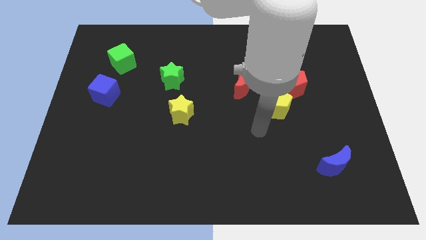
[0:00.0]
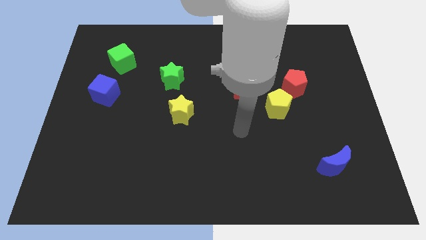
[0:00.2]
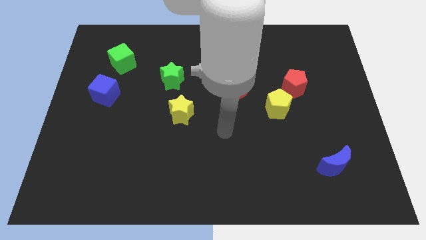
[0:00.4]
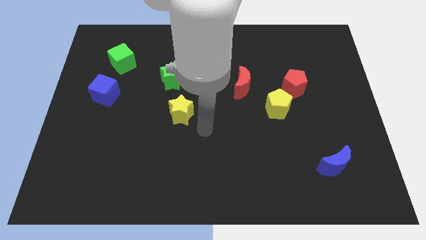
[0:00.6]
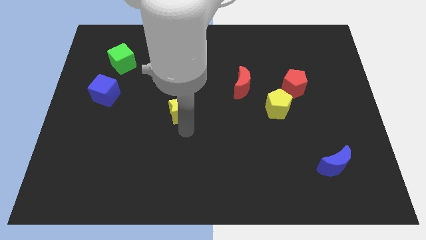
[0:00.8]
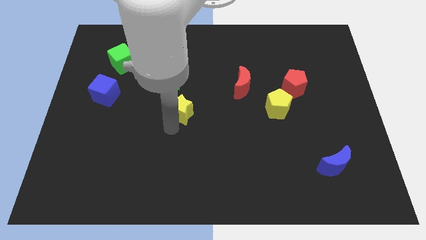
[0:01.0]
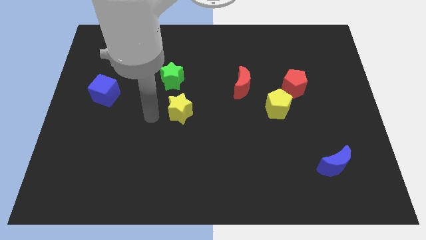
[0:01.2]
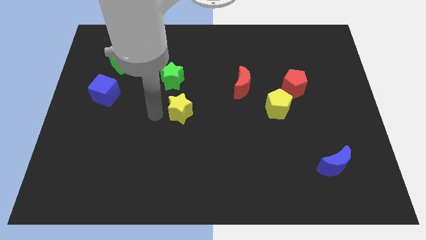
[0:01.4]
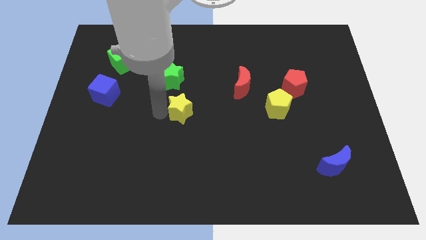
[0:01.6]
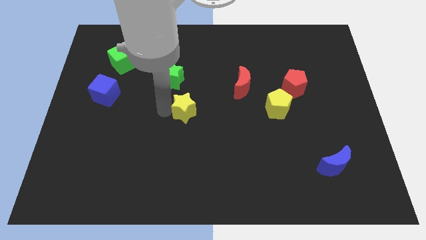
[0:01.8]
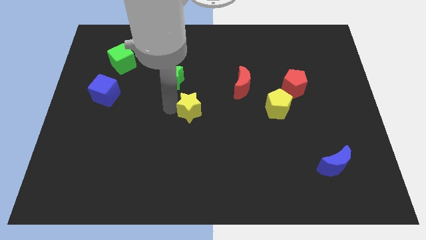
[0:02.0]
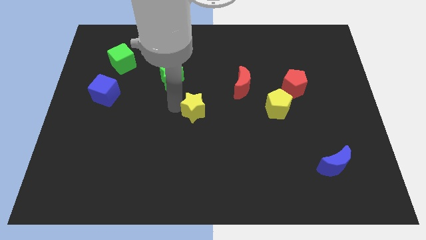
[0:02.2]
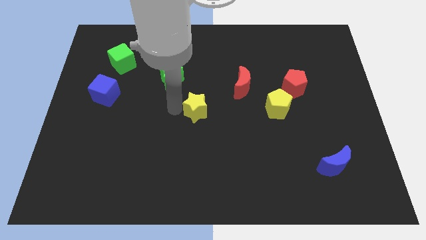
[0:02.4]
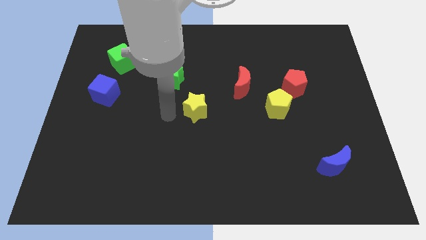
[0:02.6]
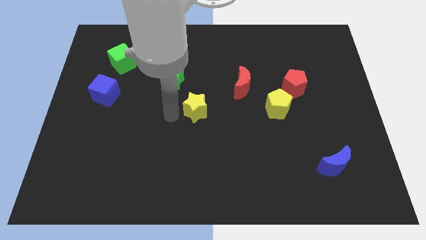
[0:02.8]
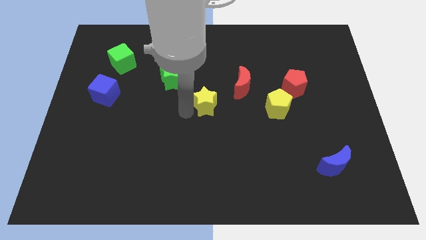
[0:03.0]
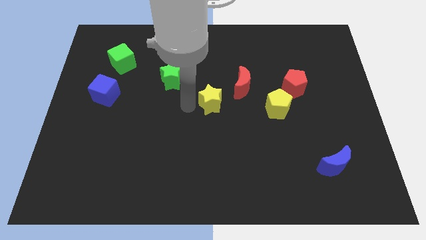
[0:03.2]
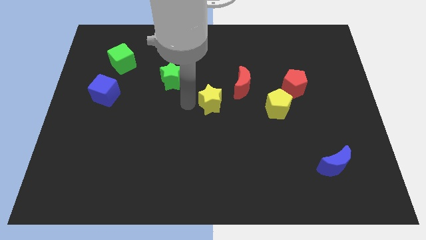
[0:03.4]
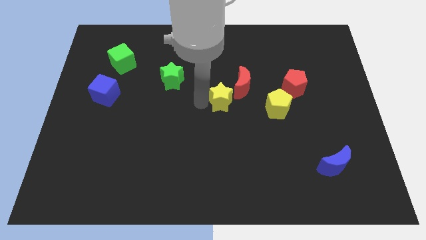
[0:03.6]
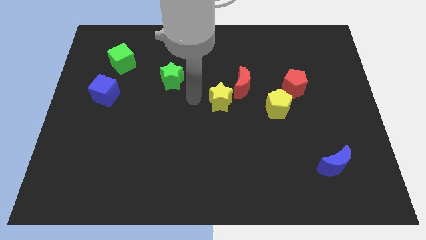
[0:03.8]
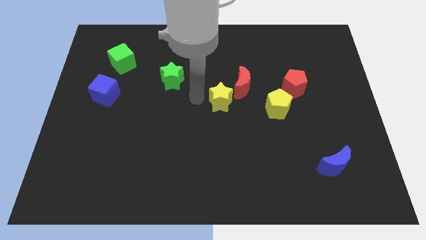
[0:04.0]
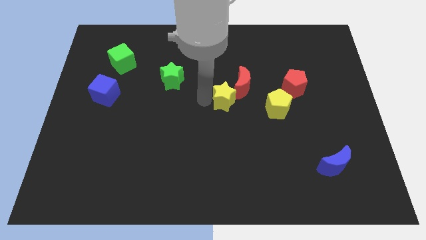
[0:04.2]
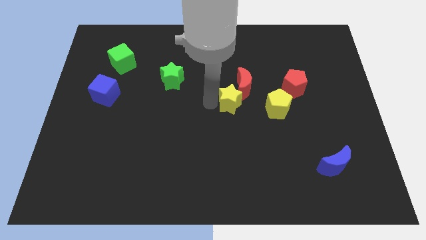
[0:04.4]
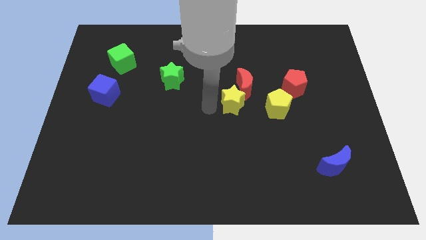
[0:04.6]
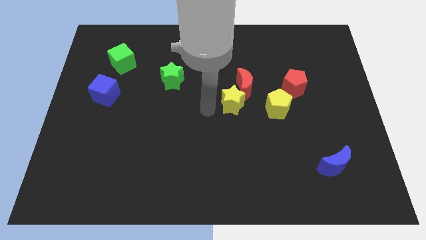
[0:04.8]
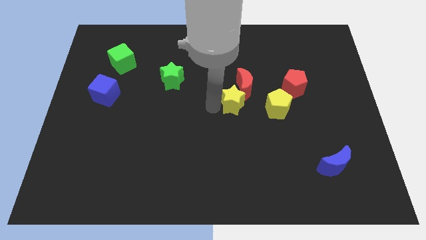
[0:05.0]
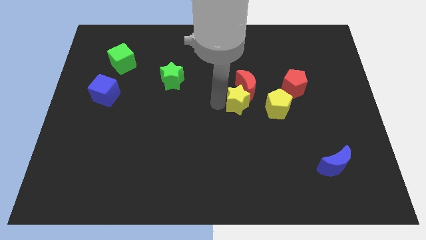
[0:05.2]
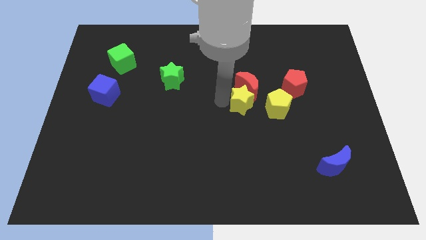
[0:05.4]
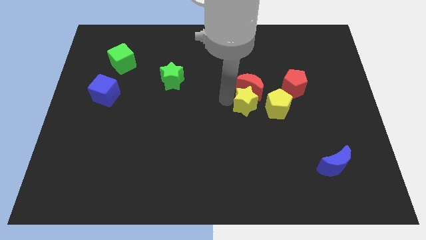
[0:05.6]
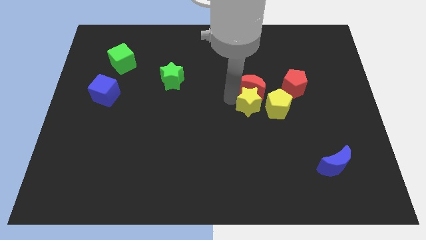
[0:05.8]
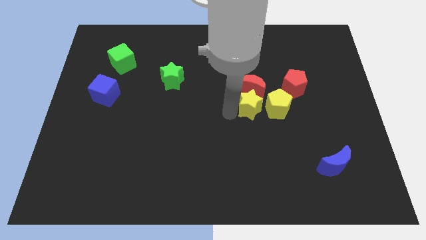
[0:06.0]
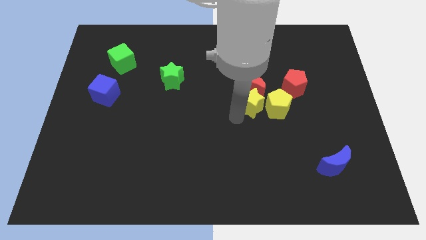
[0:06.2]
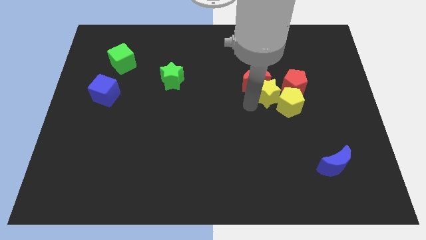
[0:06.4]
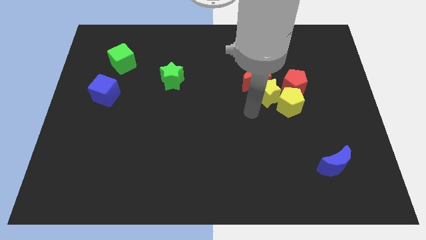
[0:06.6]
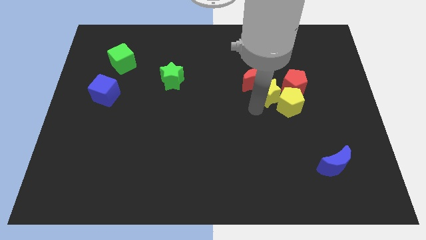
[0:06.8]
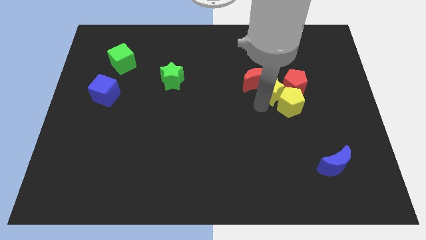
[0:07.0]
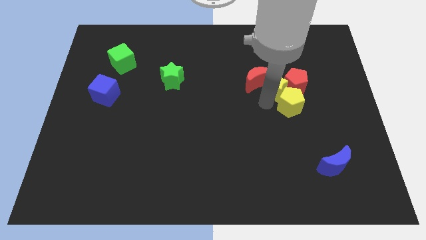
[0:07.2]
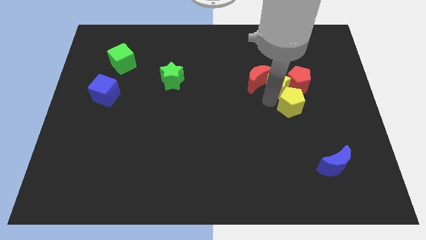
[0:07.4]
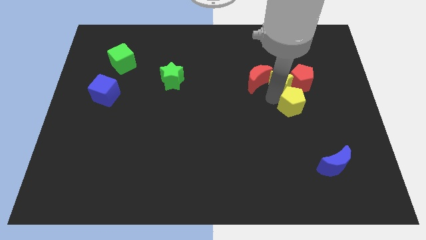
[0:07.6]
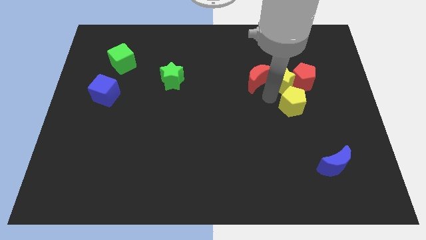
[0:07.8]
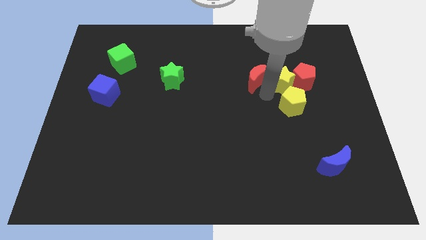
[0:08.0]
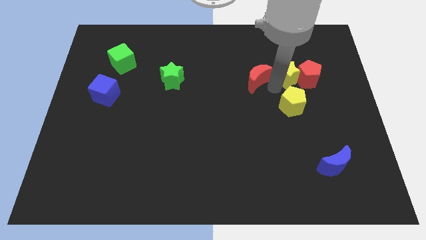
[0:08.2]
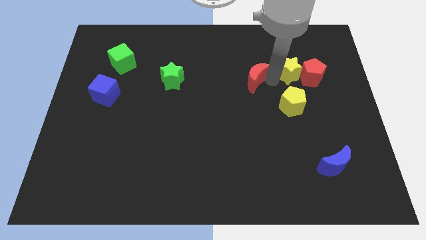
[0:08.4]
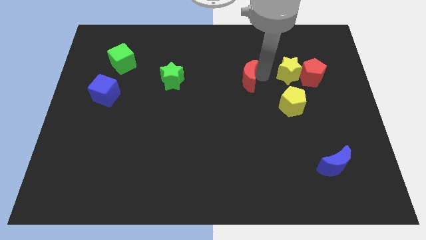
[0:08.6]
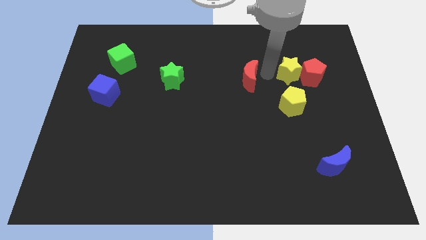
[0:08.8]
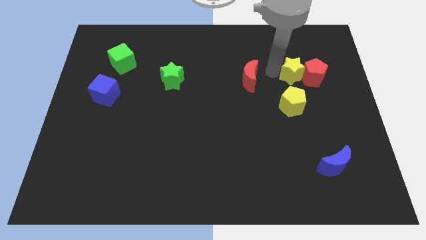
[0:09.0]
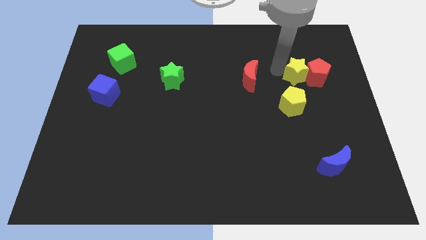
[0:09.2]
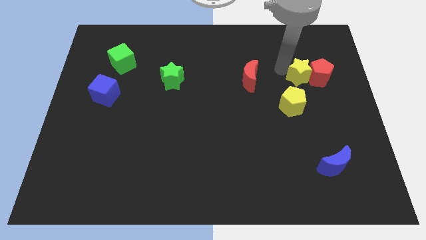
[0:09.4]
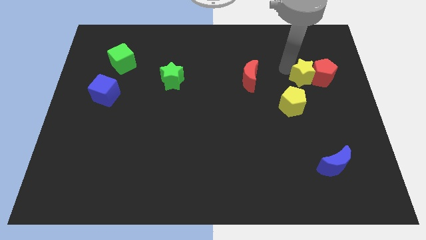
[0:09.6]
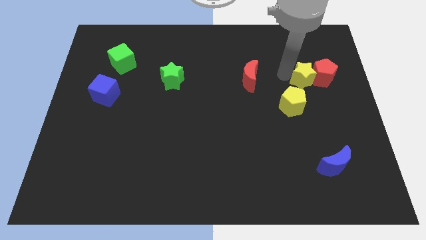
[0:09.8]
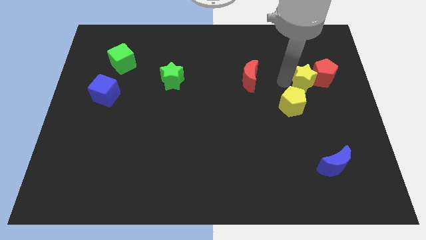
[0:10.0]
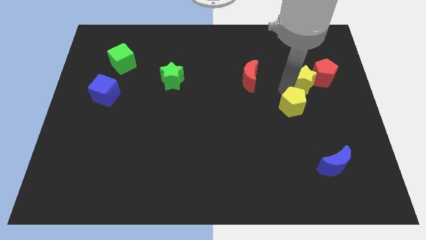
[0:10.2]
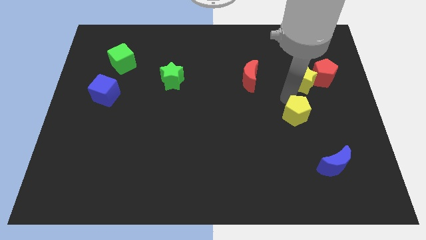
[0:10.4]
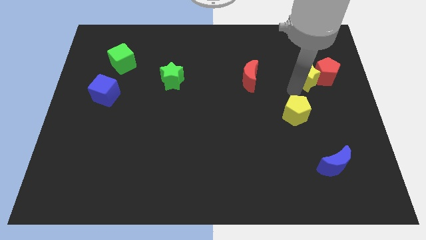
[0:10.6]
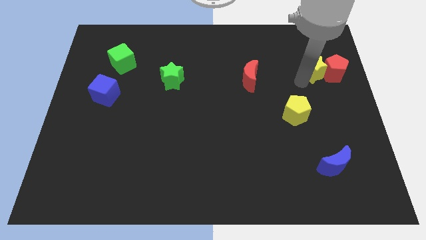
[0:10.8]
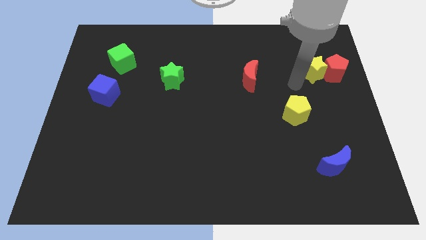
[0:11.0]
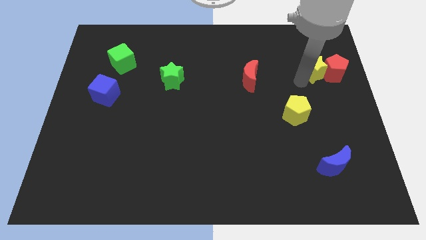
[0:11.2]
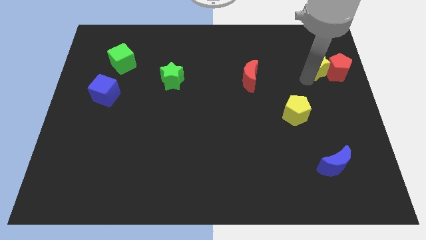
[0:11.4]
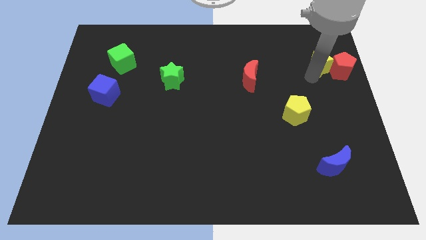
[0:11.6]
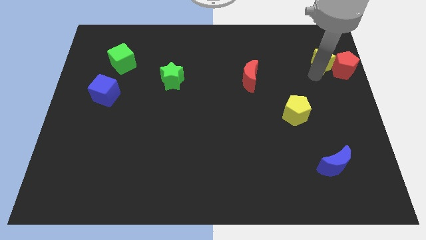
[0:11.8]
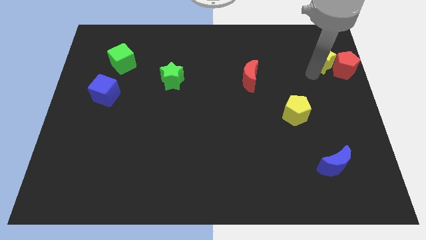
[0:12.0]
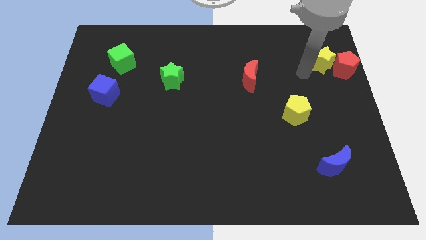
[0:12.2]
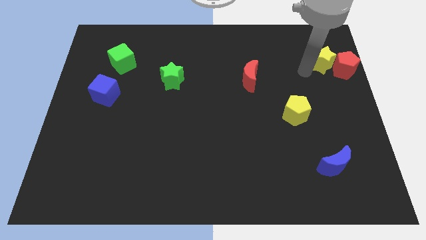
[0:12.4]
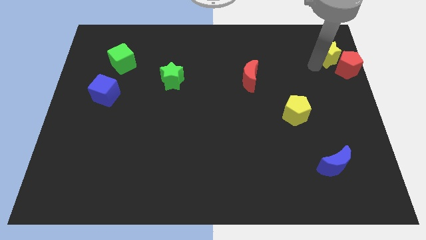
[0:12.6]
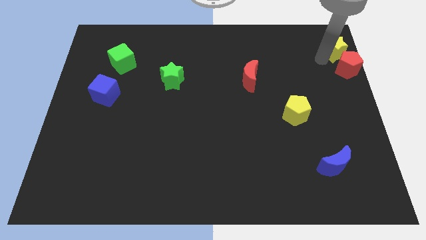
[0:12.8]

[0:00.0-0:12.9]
push the yellow star to the upper right corner

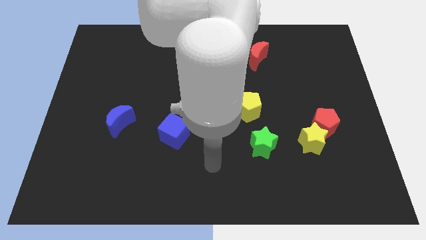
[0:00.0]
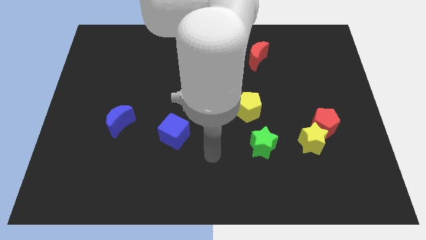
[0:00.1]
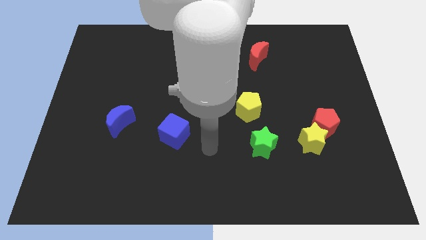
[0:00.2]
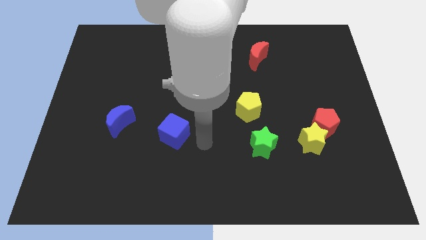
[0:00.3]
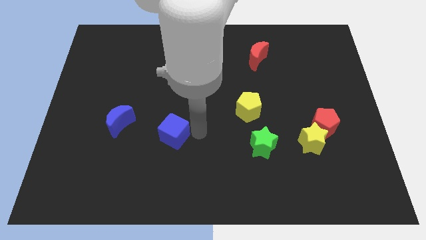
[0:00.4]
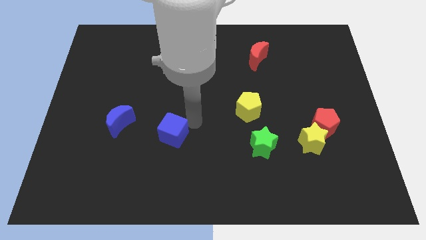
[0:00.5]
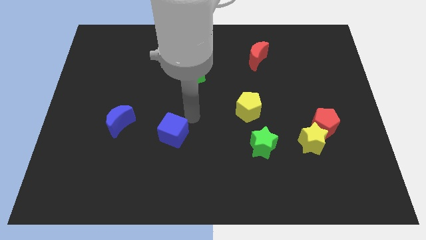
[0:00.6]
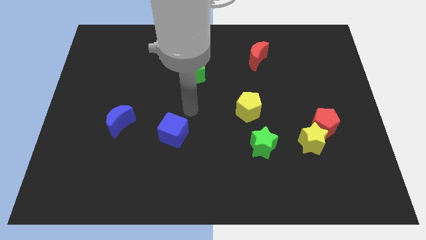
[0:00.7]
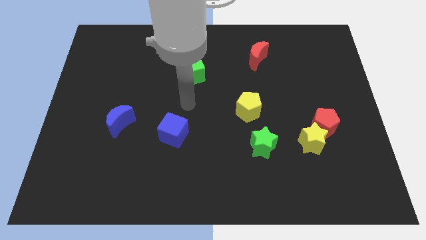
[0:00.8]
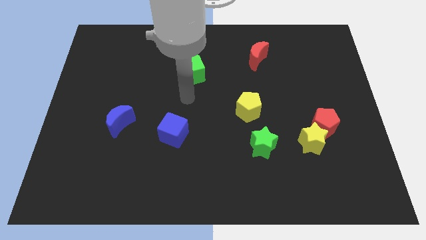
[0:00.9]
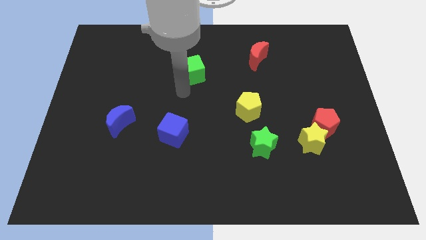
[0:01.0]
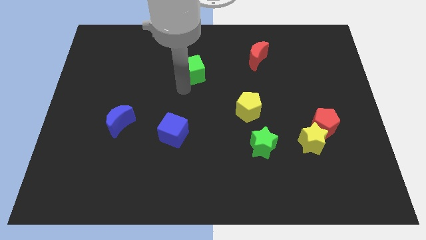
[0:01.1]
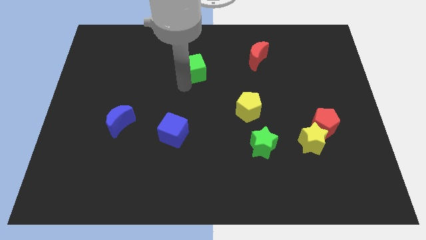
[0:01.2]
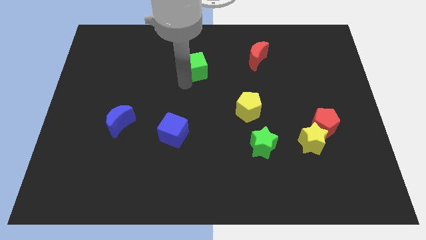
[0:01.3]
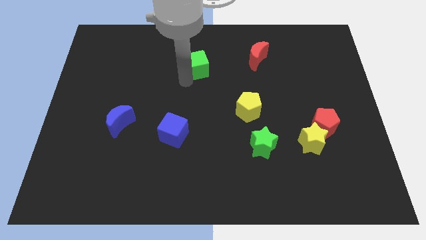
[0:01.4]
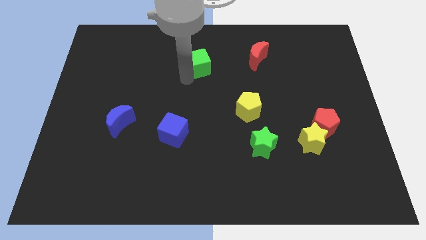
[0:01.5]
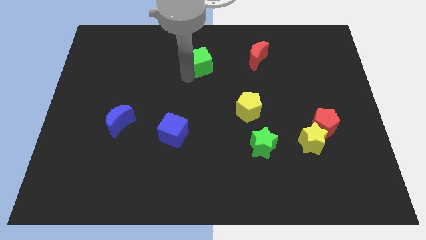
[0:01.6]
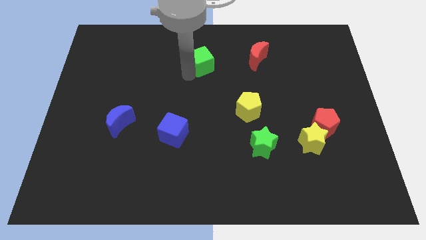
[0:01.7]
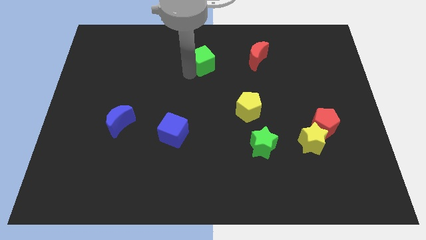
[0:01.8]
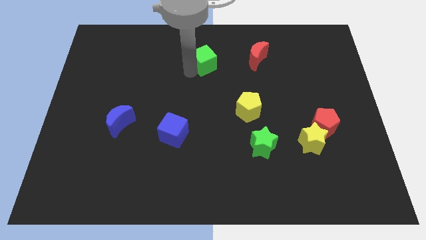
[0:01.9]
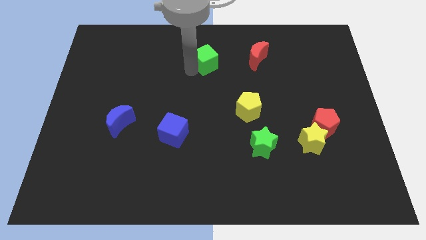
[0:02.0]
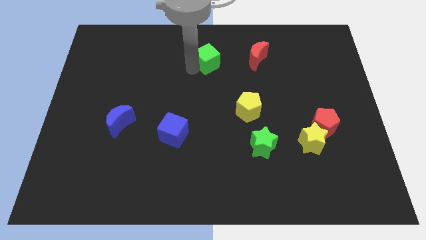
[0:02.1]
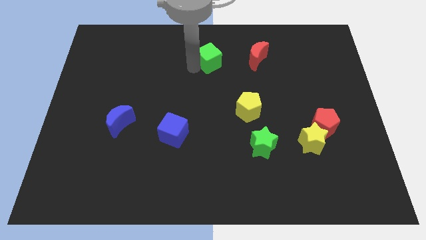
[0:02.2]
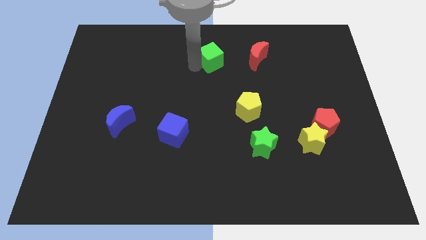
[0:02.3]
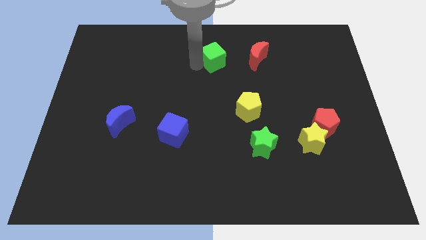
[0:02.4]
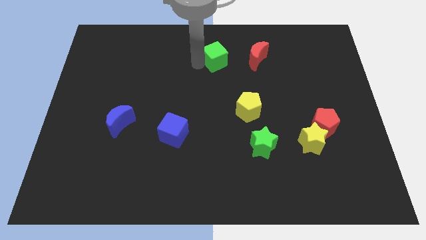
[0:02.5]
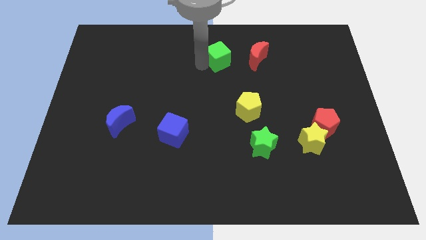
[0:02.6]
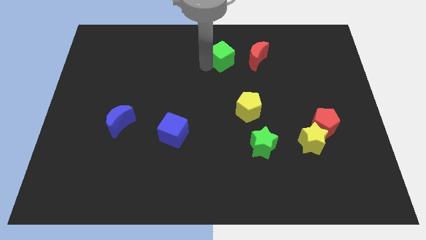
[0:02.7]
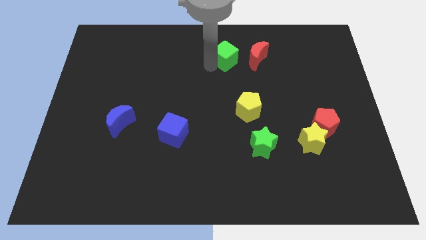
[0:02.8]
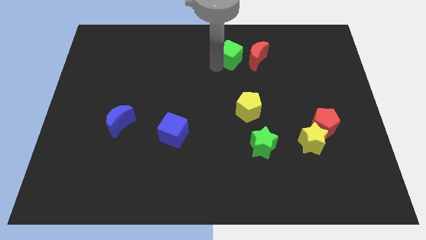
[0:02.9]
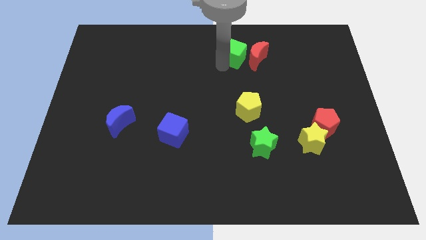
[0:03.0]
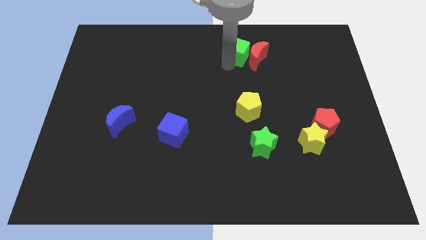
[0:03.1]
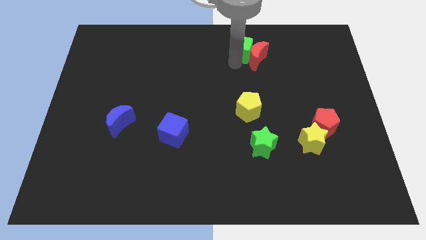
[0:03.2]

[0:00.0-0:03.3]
move the green cube to the towards your base
